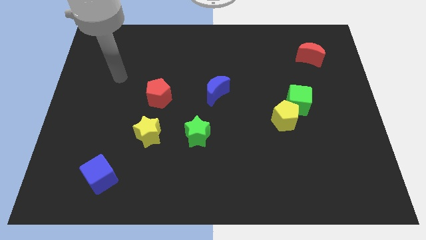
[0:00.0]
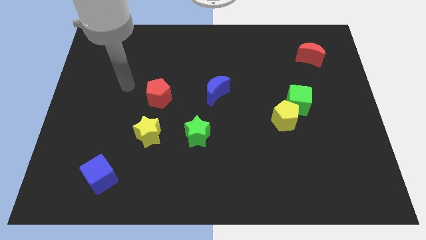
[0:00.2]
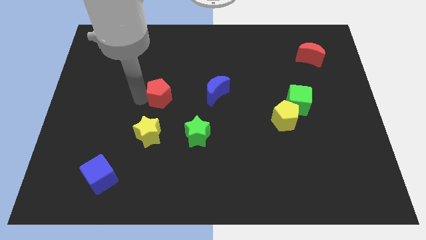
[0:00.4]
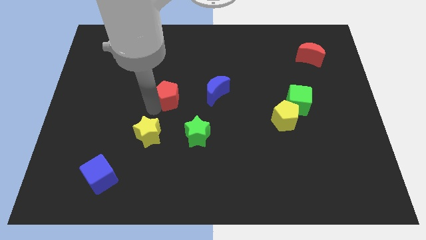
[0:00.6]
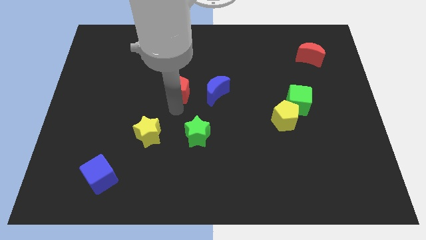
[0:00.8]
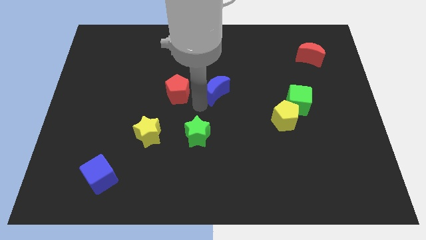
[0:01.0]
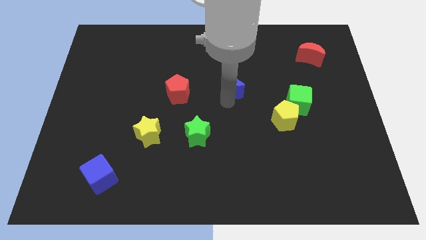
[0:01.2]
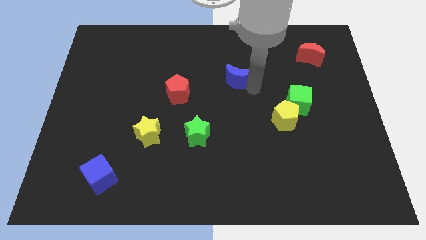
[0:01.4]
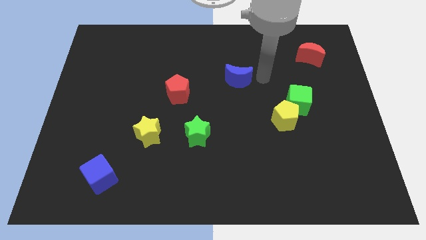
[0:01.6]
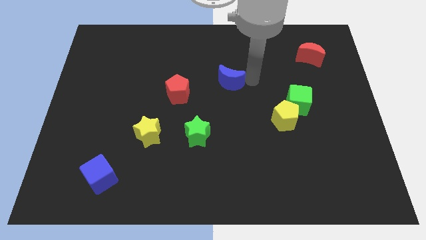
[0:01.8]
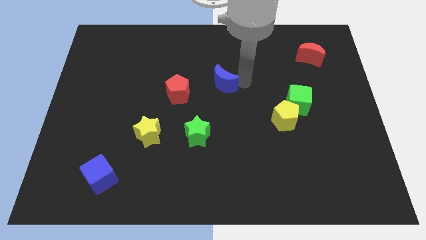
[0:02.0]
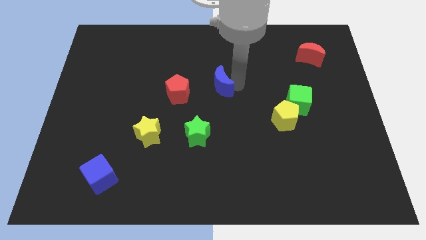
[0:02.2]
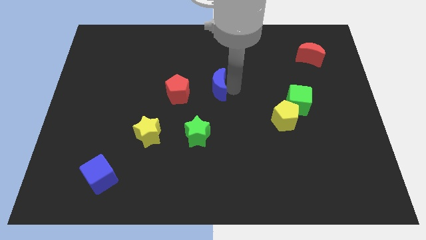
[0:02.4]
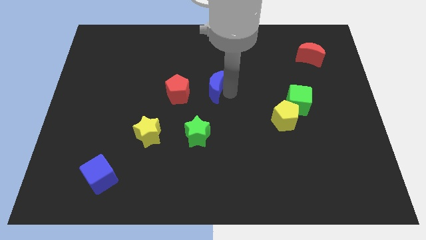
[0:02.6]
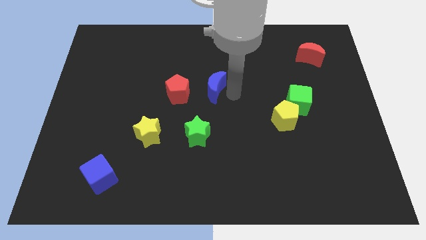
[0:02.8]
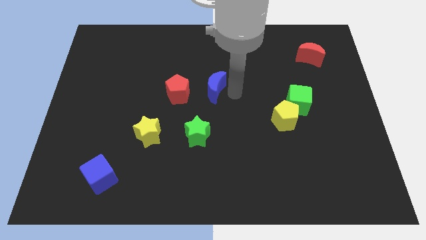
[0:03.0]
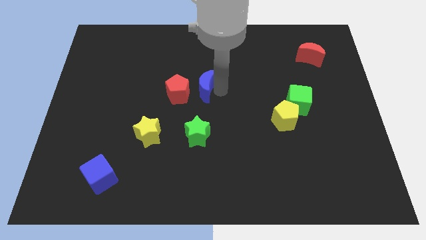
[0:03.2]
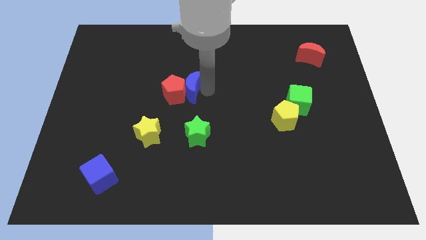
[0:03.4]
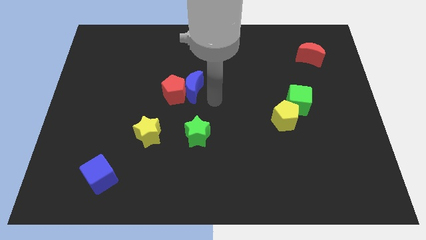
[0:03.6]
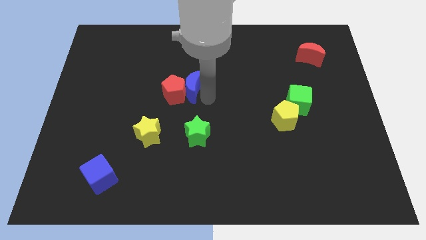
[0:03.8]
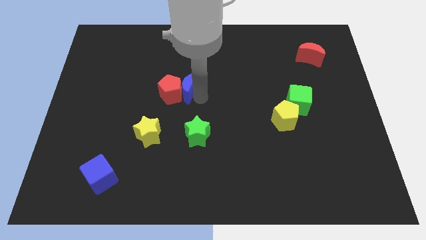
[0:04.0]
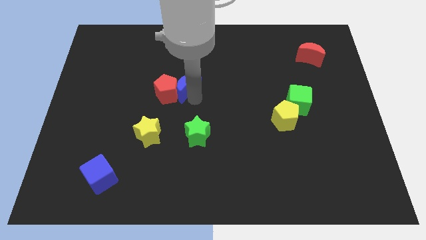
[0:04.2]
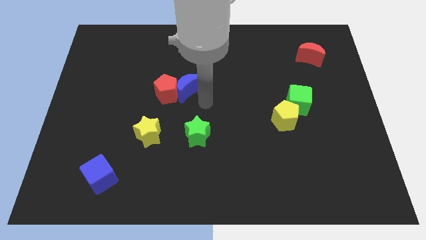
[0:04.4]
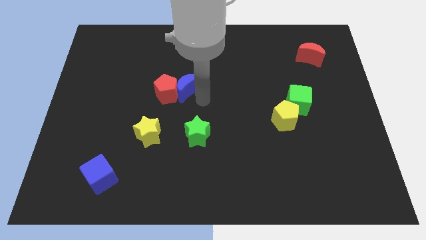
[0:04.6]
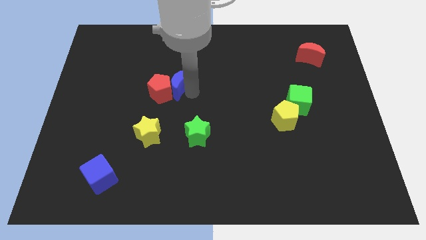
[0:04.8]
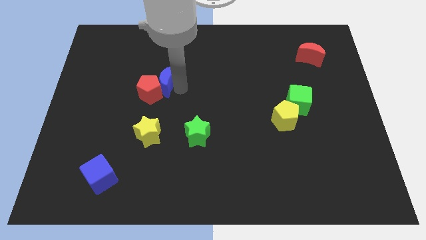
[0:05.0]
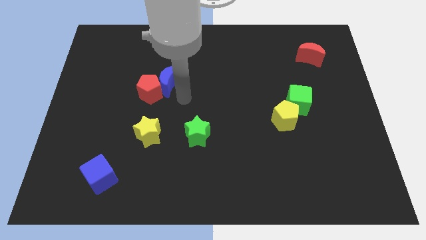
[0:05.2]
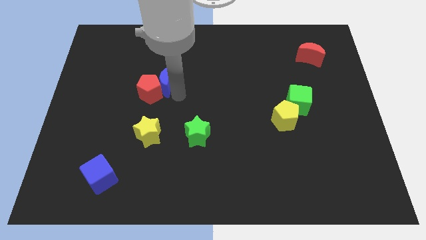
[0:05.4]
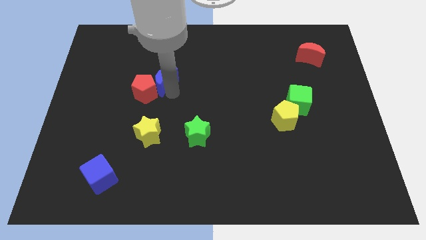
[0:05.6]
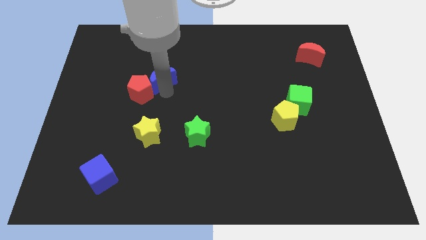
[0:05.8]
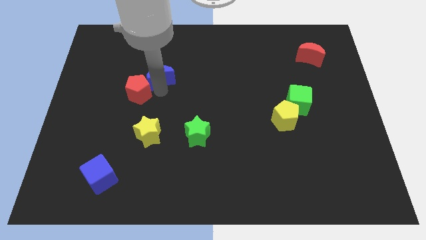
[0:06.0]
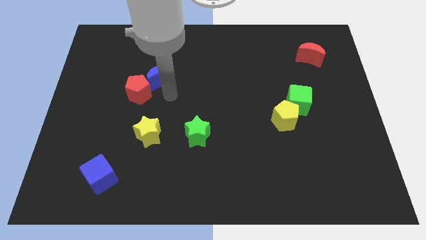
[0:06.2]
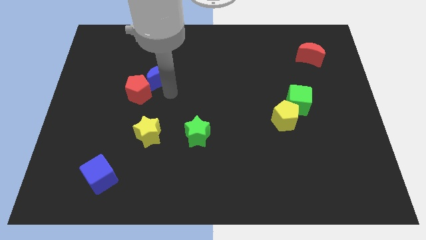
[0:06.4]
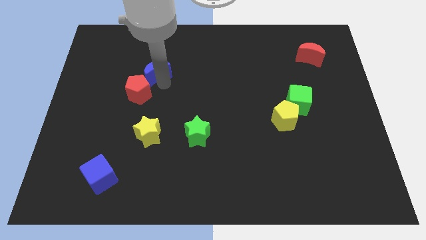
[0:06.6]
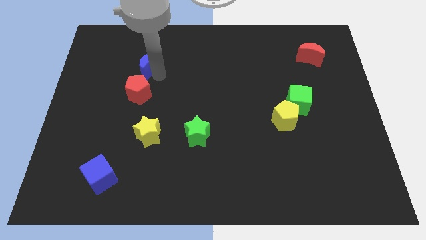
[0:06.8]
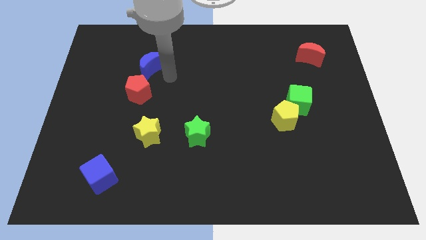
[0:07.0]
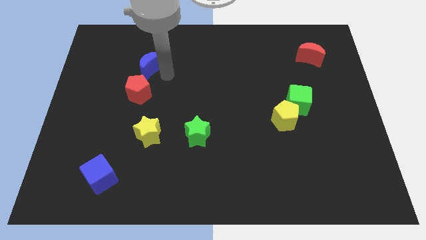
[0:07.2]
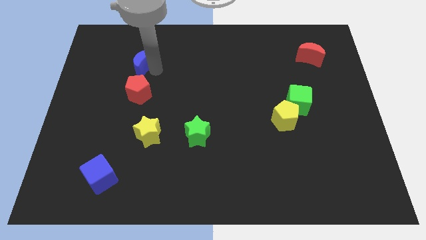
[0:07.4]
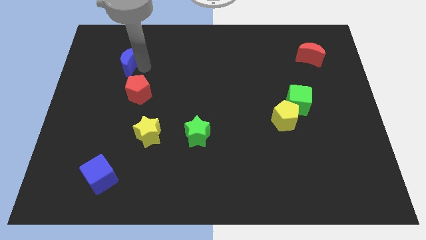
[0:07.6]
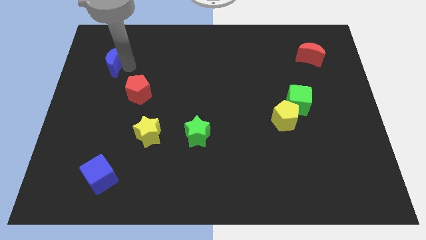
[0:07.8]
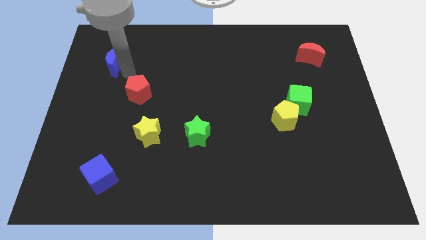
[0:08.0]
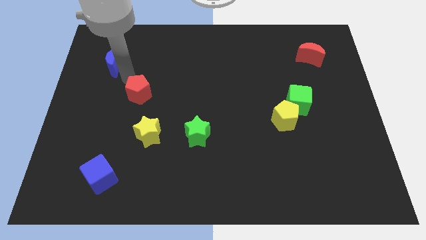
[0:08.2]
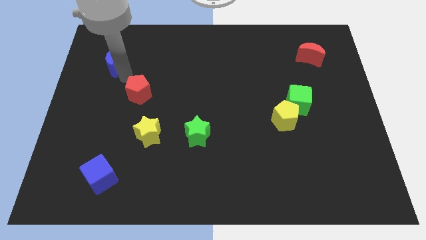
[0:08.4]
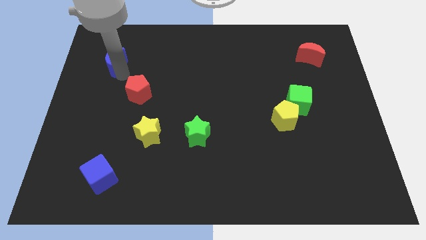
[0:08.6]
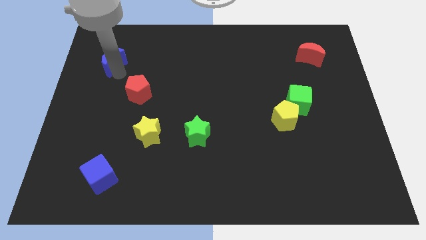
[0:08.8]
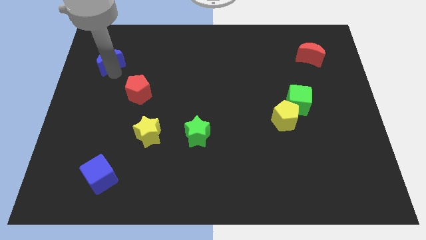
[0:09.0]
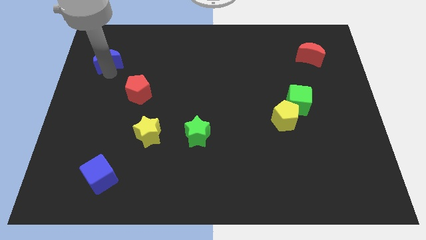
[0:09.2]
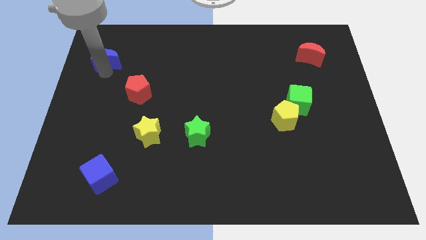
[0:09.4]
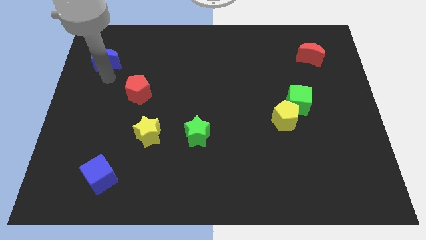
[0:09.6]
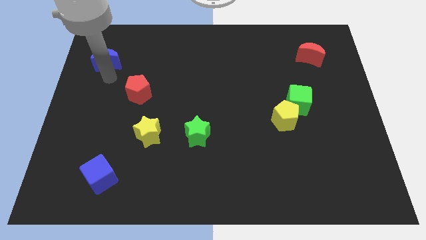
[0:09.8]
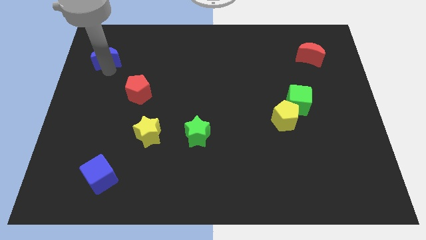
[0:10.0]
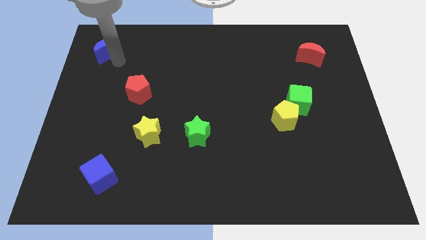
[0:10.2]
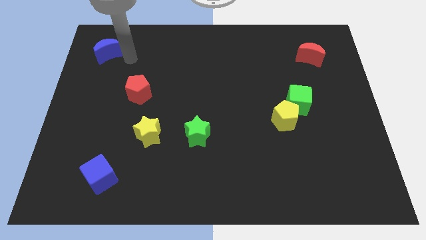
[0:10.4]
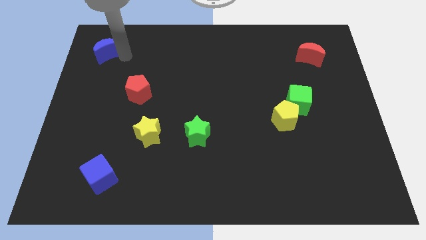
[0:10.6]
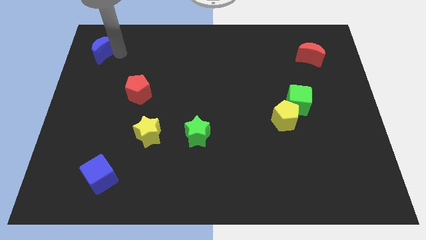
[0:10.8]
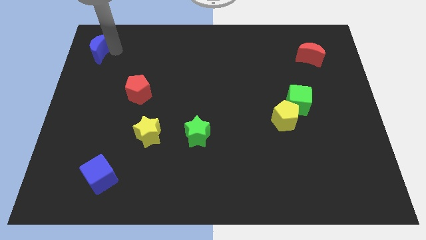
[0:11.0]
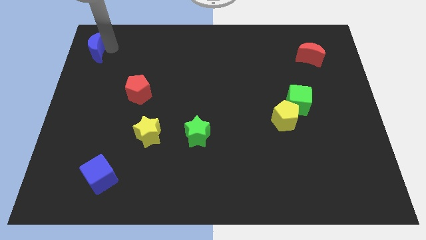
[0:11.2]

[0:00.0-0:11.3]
push the blue moon to the top left
